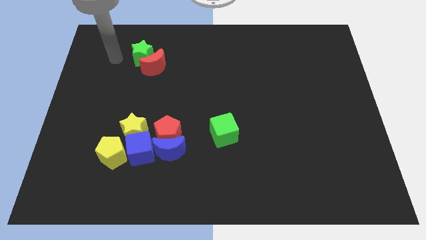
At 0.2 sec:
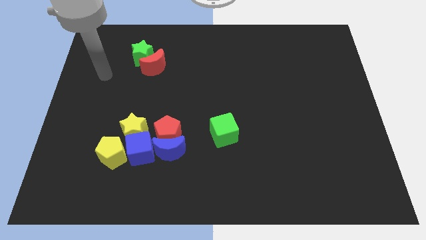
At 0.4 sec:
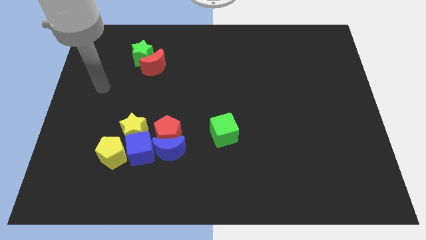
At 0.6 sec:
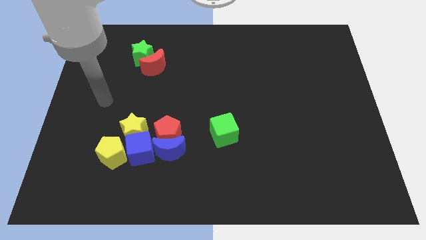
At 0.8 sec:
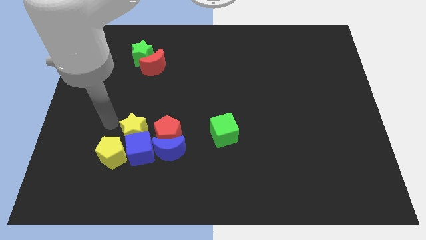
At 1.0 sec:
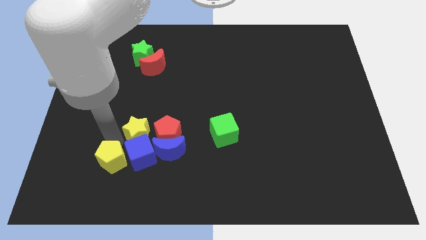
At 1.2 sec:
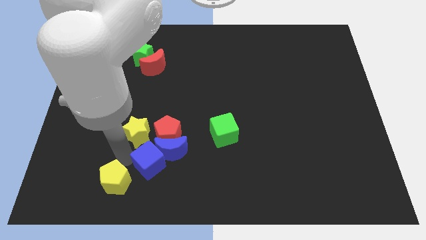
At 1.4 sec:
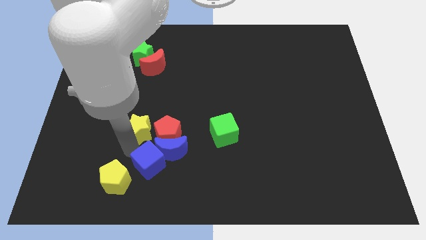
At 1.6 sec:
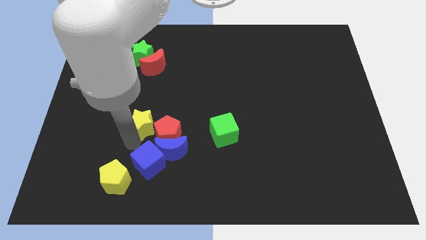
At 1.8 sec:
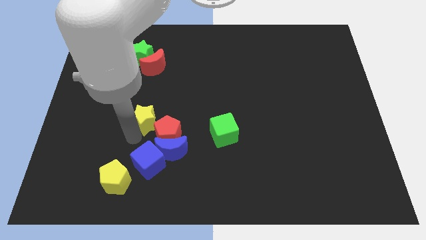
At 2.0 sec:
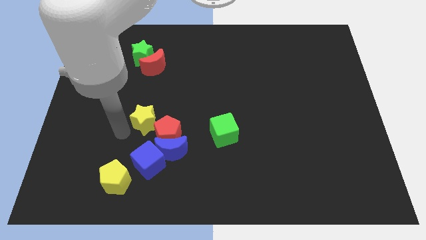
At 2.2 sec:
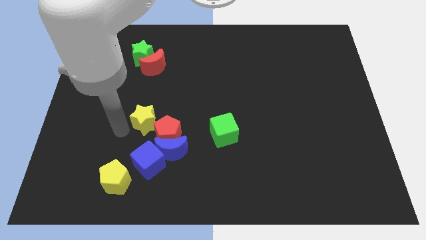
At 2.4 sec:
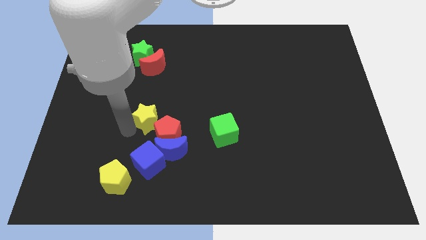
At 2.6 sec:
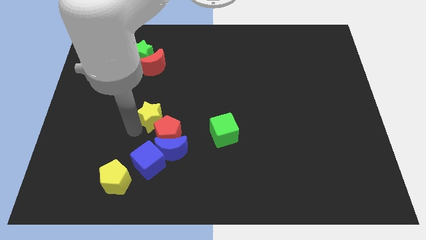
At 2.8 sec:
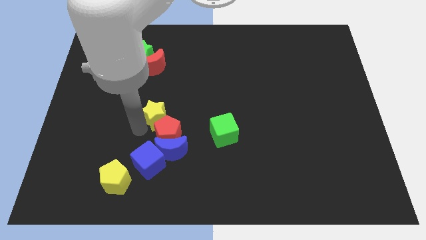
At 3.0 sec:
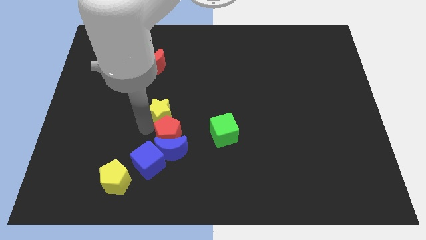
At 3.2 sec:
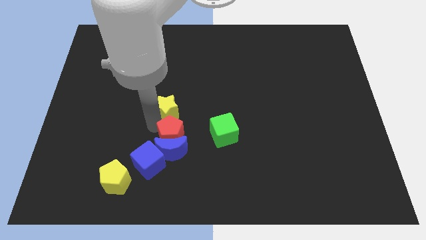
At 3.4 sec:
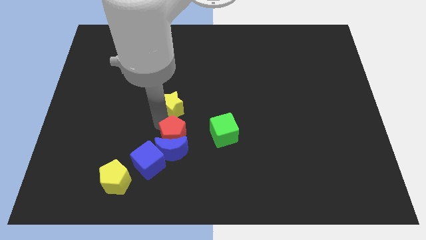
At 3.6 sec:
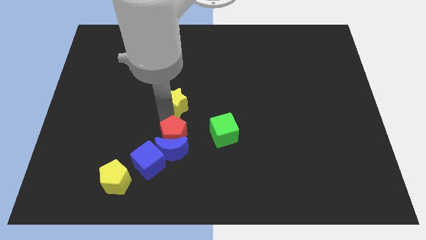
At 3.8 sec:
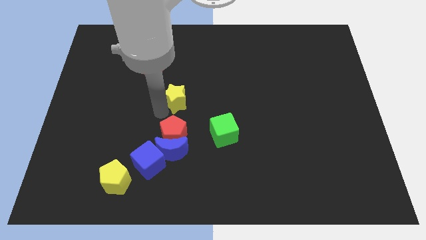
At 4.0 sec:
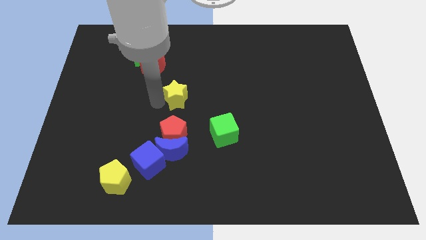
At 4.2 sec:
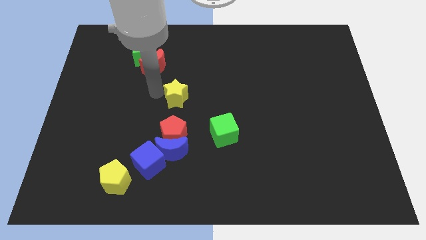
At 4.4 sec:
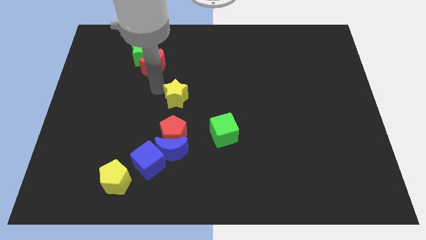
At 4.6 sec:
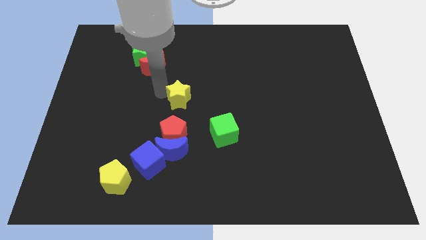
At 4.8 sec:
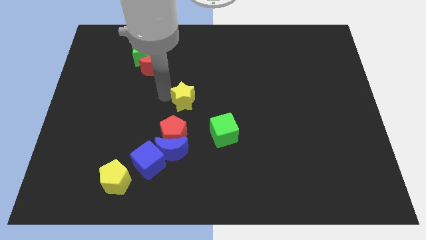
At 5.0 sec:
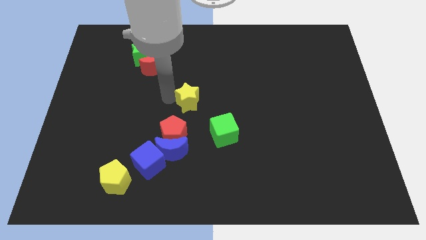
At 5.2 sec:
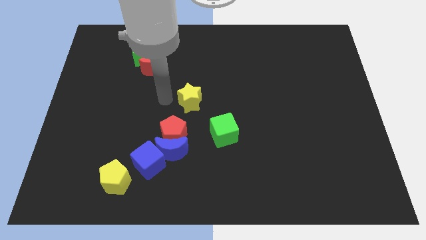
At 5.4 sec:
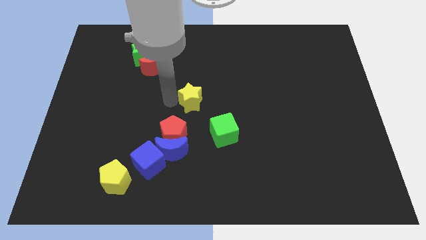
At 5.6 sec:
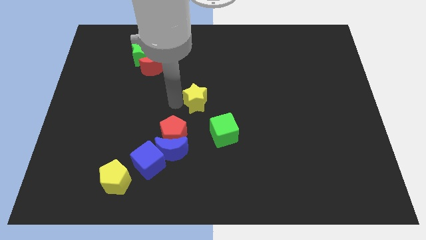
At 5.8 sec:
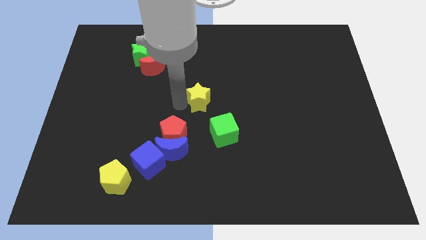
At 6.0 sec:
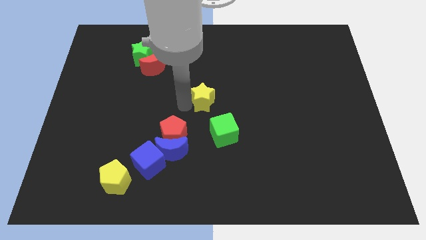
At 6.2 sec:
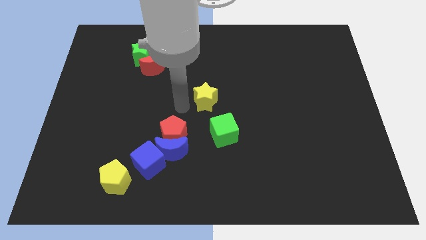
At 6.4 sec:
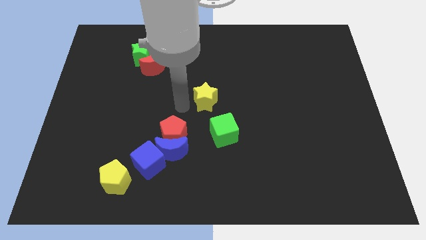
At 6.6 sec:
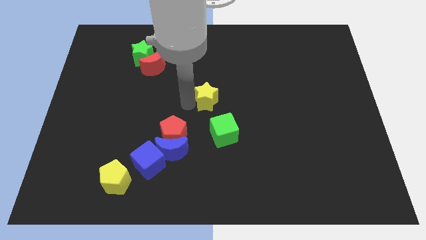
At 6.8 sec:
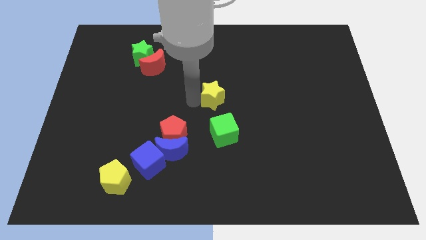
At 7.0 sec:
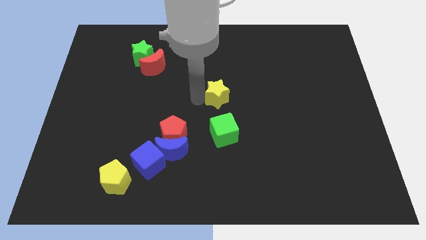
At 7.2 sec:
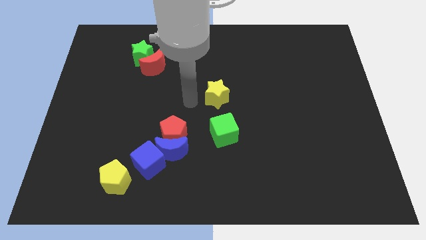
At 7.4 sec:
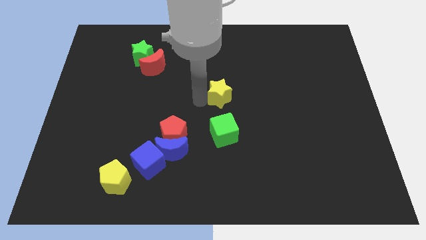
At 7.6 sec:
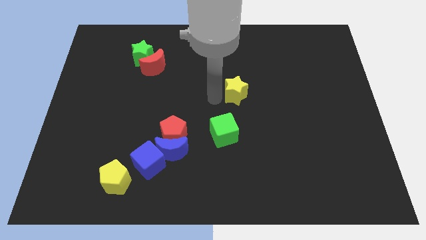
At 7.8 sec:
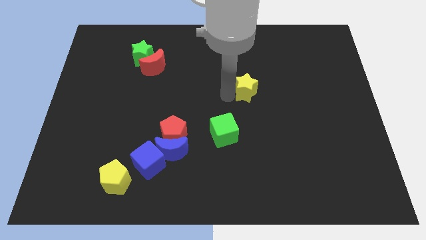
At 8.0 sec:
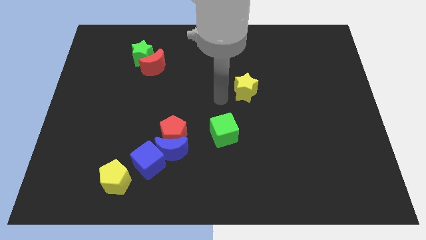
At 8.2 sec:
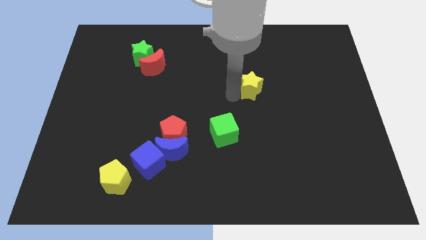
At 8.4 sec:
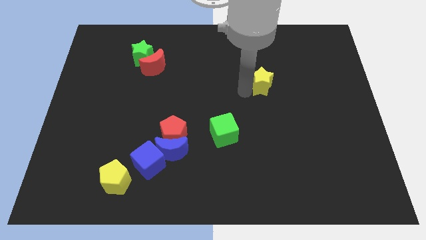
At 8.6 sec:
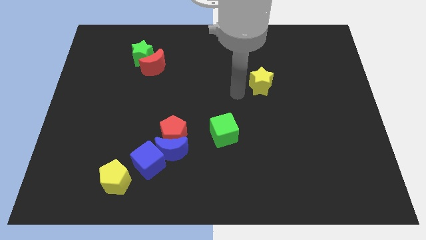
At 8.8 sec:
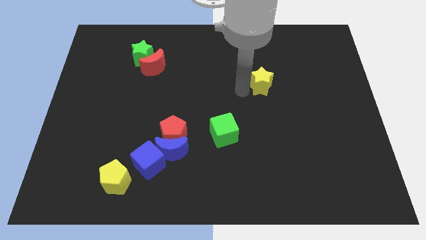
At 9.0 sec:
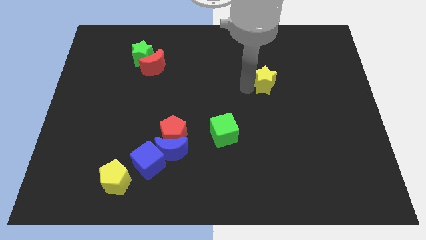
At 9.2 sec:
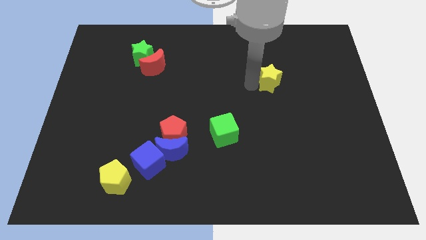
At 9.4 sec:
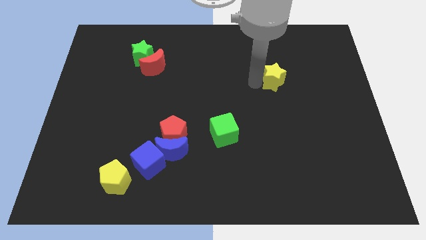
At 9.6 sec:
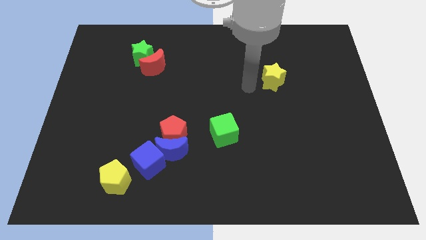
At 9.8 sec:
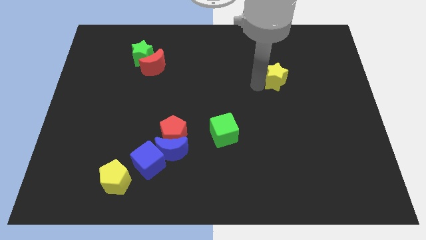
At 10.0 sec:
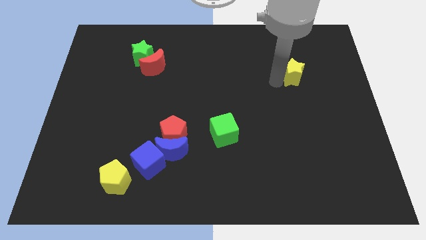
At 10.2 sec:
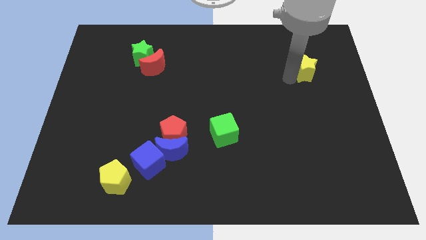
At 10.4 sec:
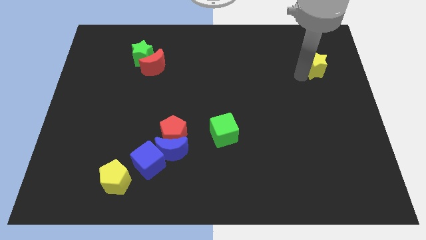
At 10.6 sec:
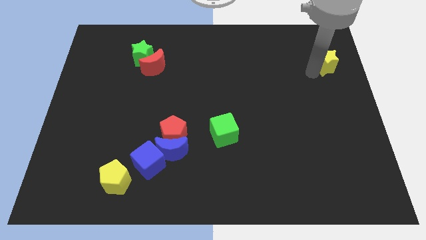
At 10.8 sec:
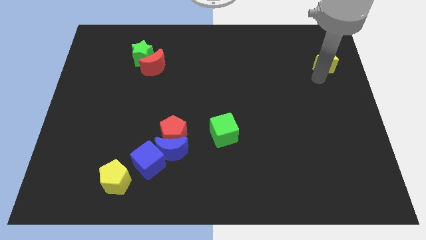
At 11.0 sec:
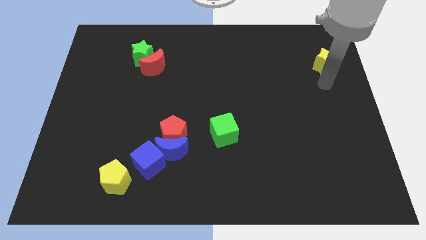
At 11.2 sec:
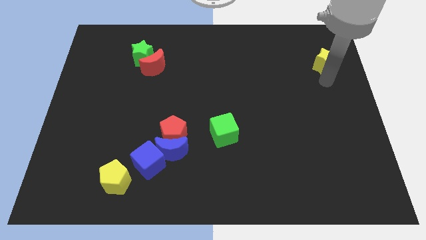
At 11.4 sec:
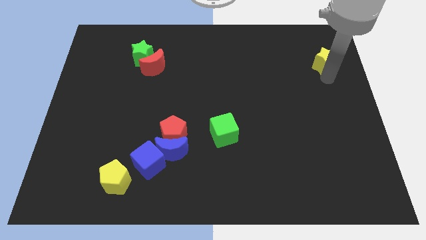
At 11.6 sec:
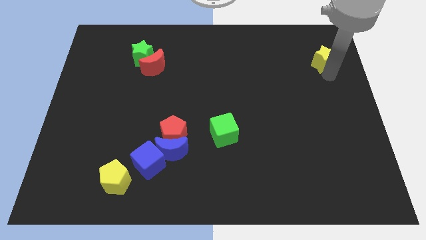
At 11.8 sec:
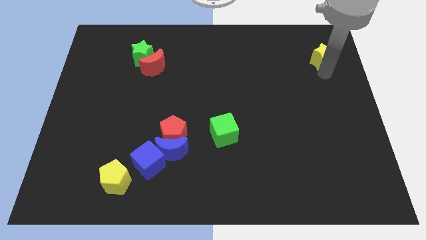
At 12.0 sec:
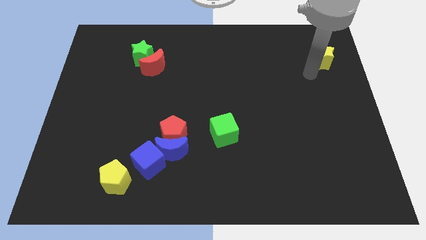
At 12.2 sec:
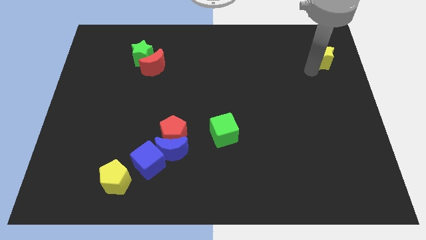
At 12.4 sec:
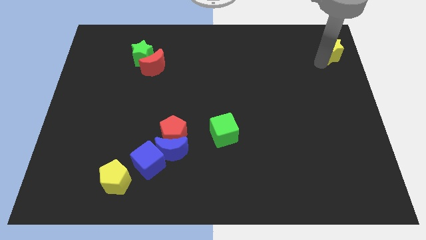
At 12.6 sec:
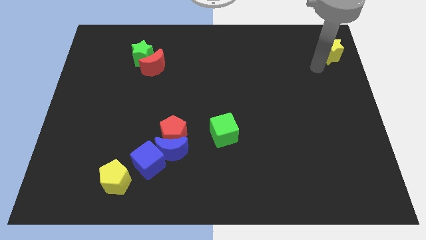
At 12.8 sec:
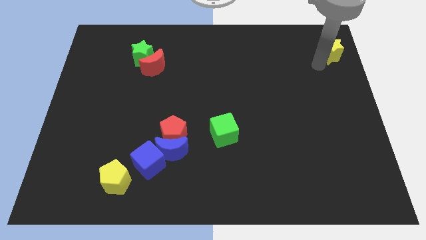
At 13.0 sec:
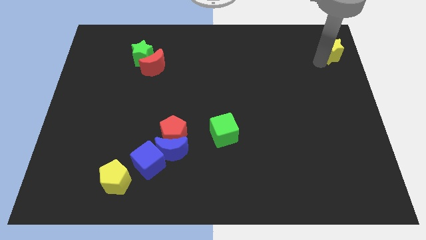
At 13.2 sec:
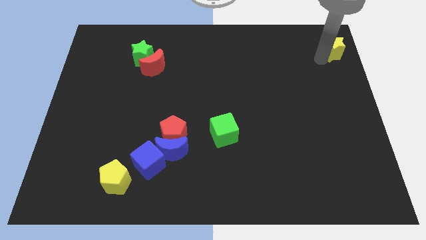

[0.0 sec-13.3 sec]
push the yellow star to the top right

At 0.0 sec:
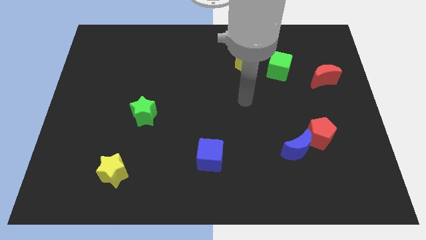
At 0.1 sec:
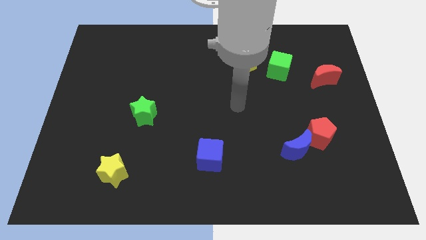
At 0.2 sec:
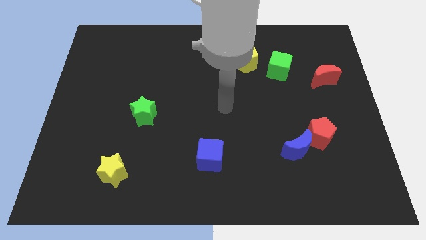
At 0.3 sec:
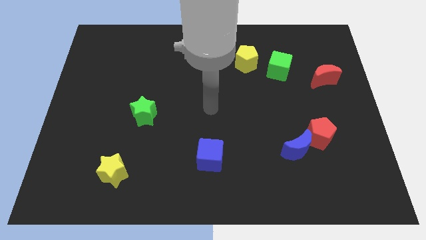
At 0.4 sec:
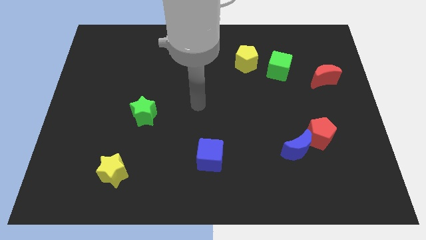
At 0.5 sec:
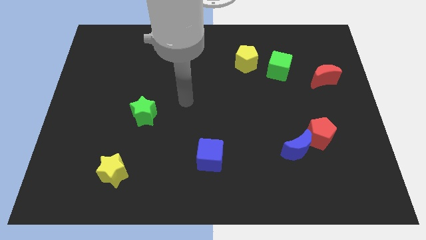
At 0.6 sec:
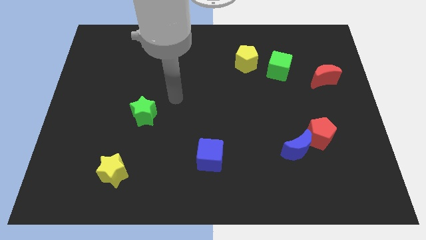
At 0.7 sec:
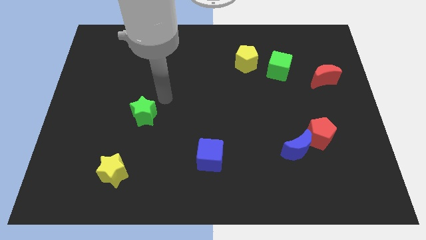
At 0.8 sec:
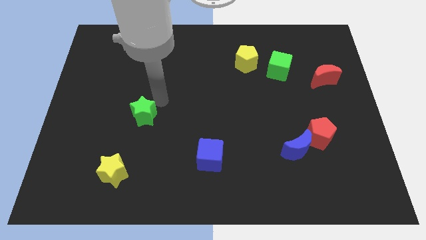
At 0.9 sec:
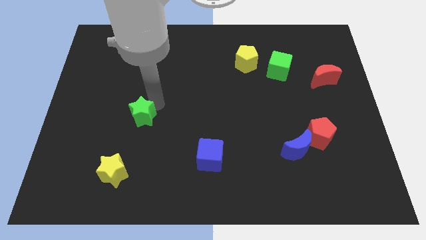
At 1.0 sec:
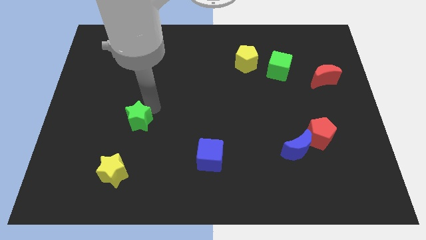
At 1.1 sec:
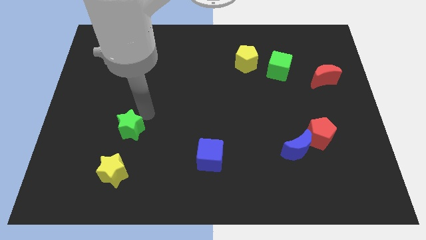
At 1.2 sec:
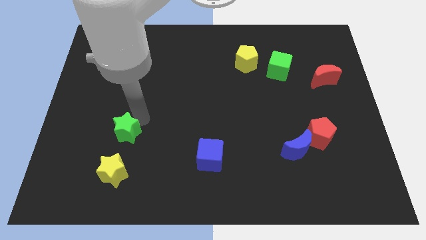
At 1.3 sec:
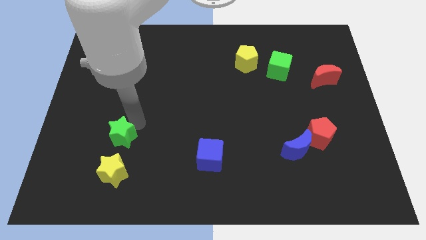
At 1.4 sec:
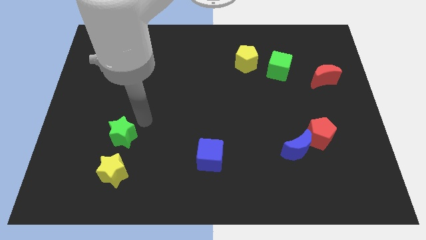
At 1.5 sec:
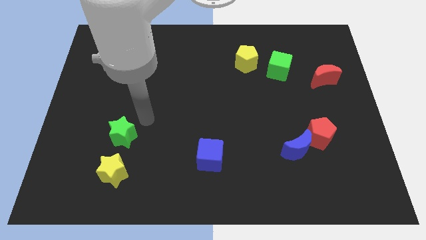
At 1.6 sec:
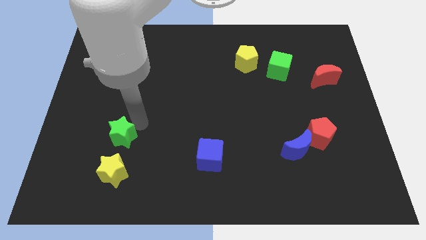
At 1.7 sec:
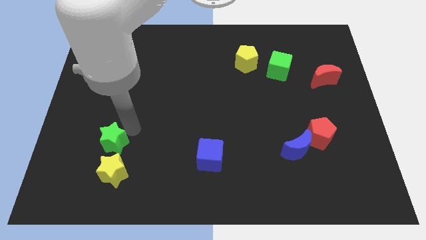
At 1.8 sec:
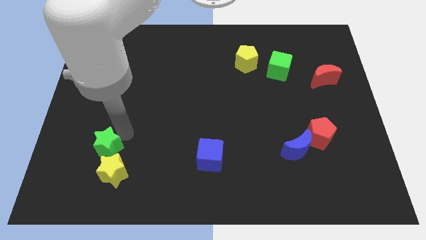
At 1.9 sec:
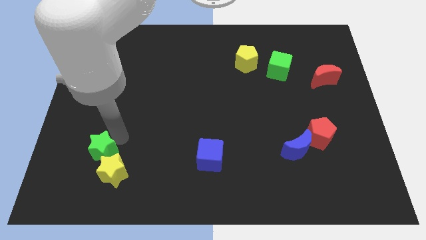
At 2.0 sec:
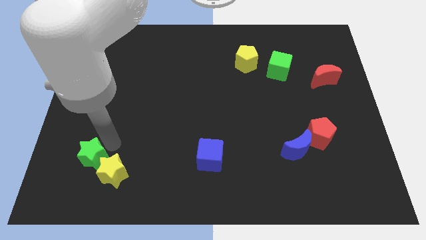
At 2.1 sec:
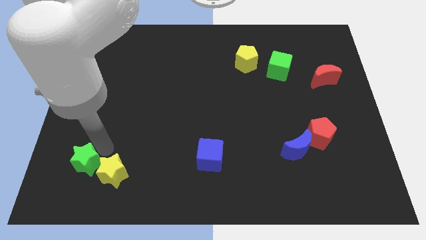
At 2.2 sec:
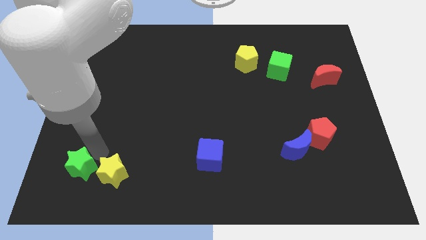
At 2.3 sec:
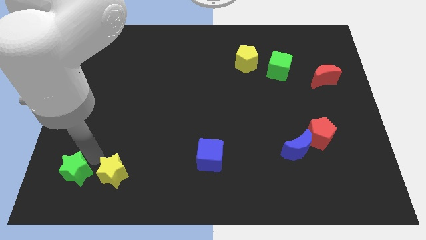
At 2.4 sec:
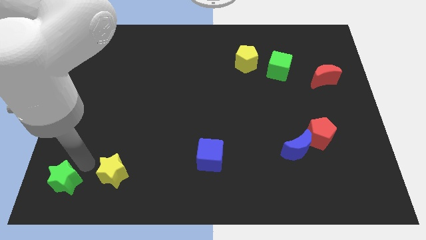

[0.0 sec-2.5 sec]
slide the green star to the bottom left corner
